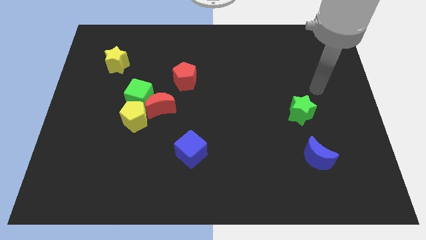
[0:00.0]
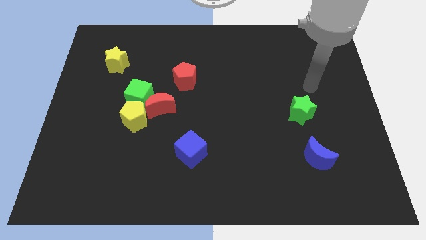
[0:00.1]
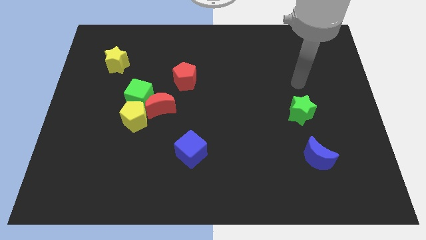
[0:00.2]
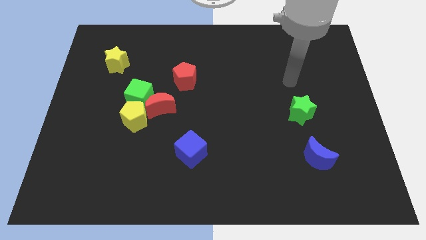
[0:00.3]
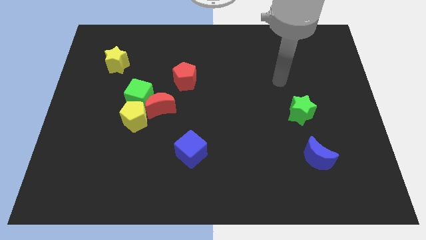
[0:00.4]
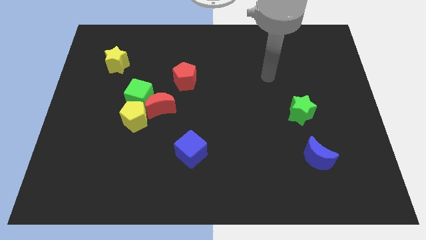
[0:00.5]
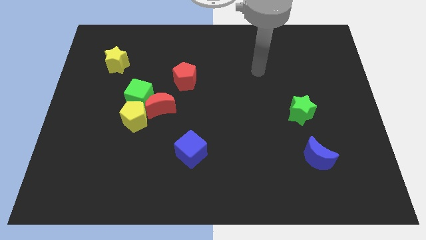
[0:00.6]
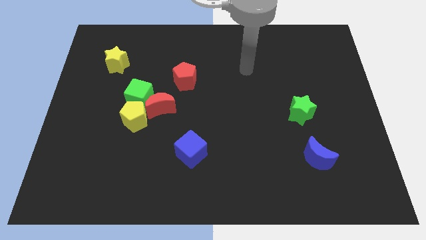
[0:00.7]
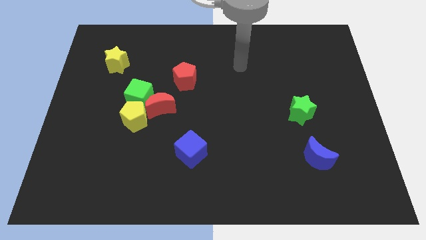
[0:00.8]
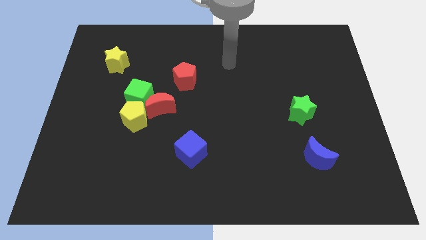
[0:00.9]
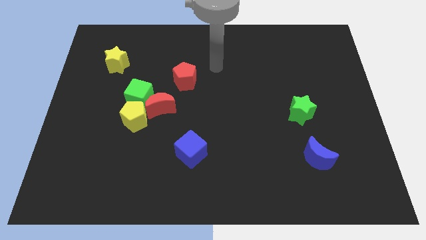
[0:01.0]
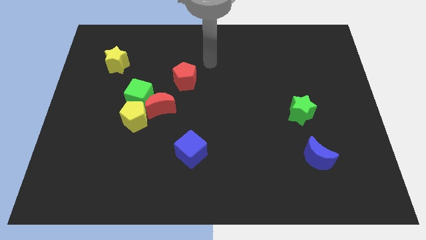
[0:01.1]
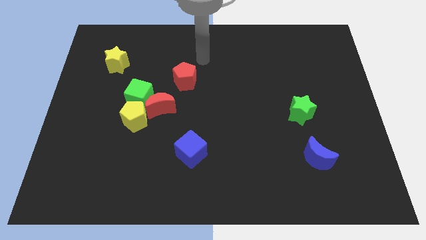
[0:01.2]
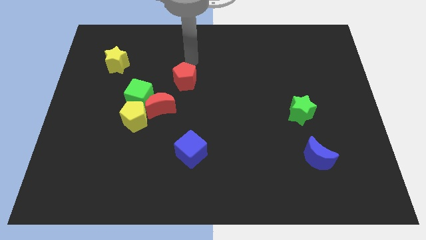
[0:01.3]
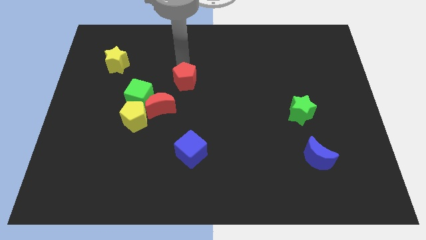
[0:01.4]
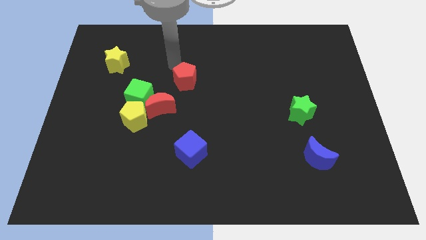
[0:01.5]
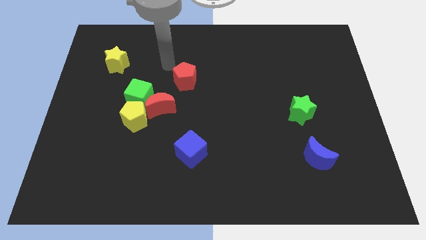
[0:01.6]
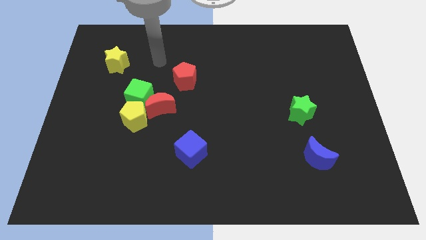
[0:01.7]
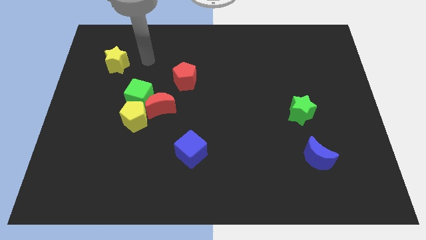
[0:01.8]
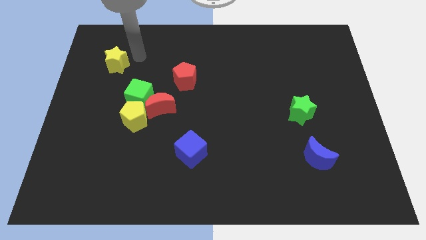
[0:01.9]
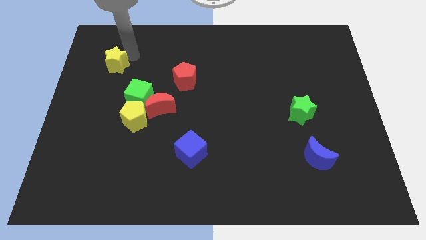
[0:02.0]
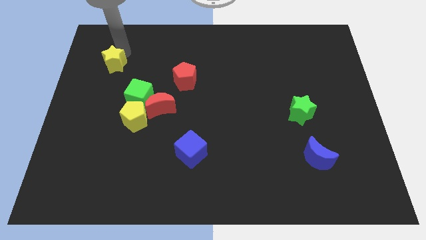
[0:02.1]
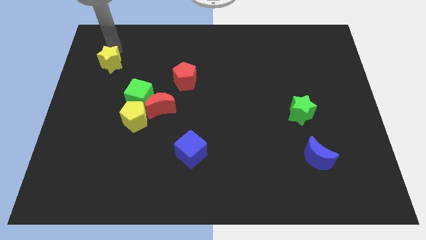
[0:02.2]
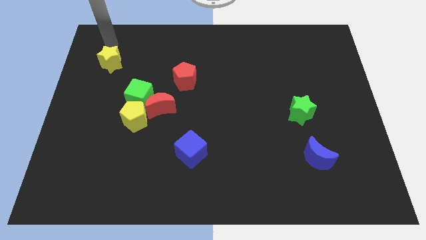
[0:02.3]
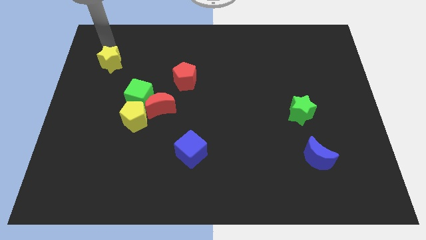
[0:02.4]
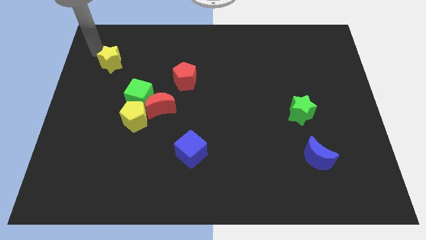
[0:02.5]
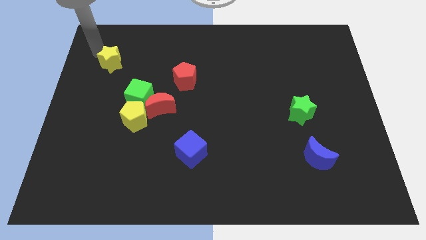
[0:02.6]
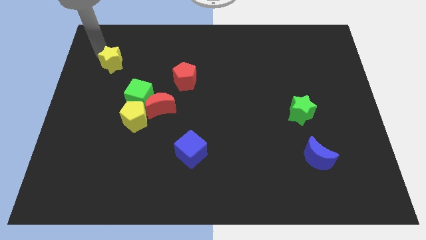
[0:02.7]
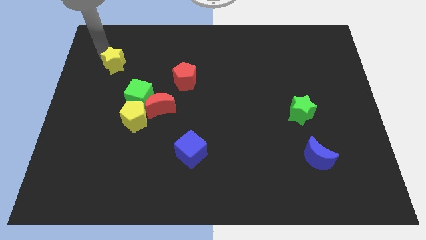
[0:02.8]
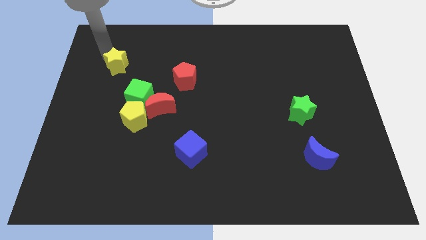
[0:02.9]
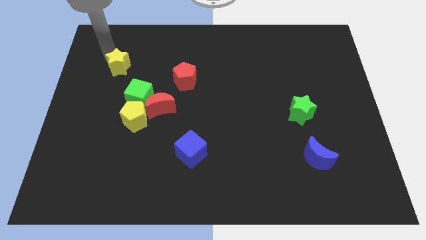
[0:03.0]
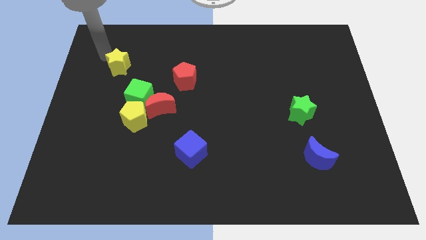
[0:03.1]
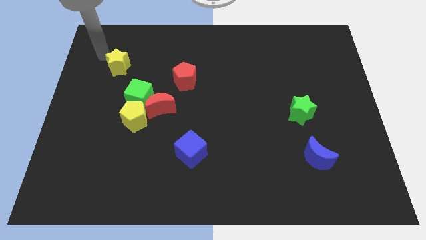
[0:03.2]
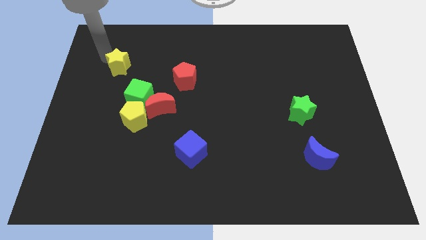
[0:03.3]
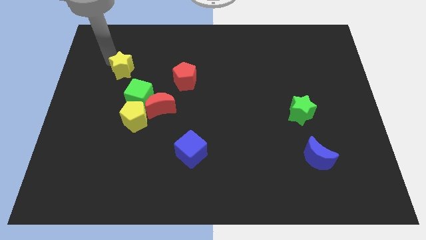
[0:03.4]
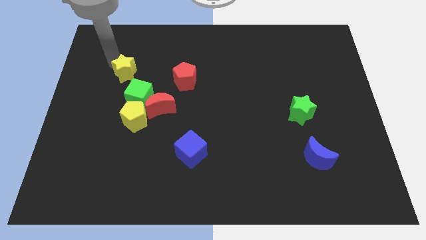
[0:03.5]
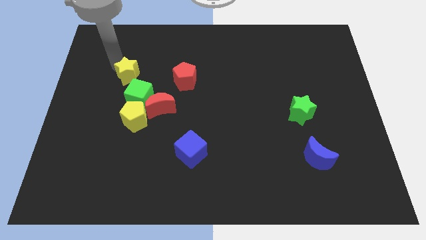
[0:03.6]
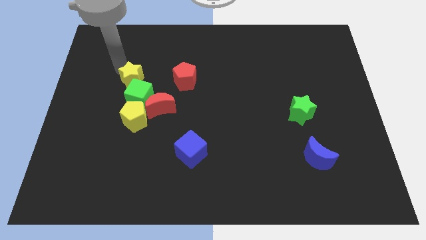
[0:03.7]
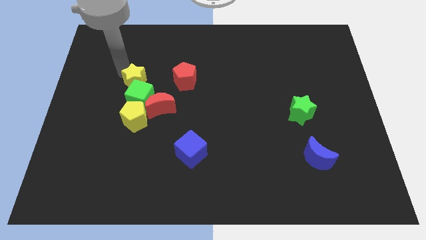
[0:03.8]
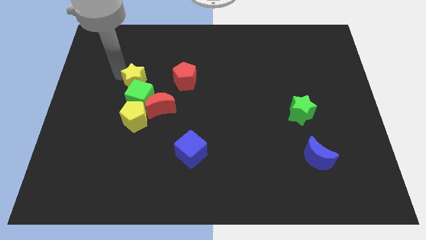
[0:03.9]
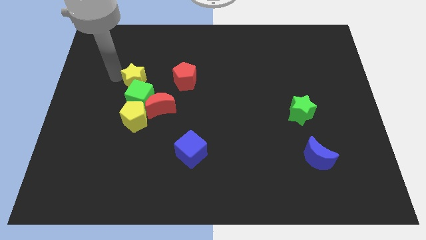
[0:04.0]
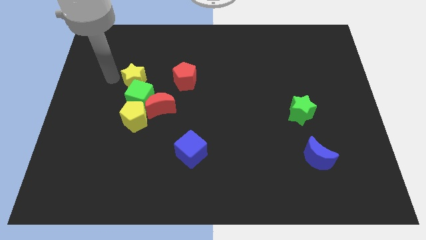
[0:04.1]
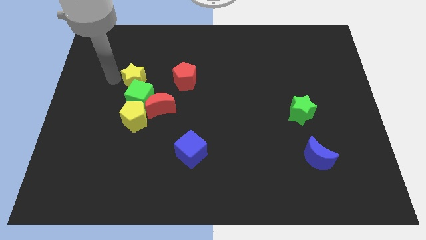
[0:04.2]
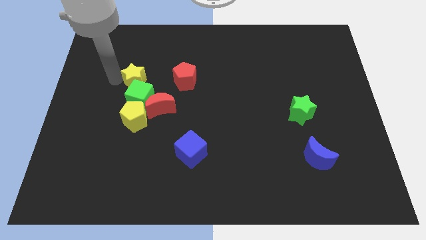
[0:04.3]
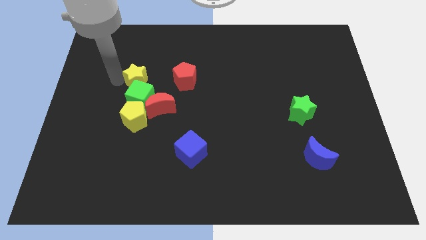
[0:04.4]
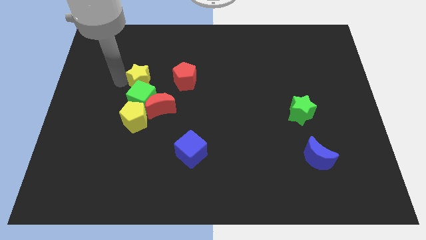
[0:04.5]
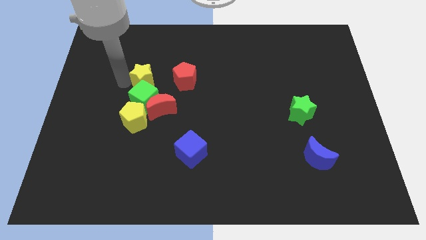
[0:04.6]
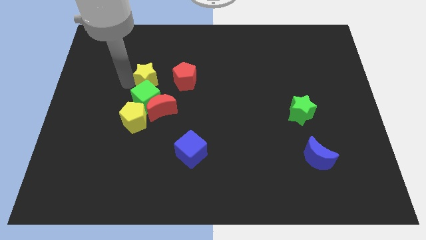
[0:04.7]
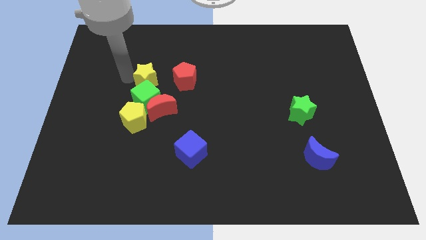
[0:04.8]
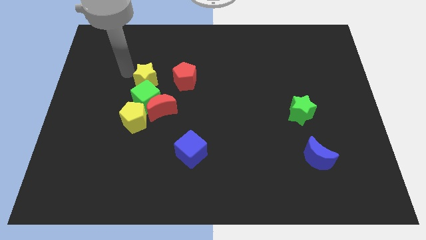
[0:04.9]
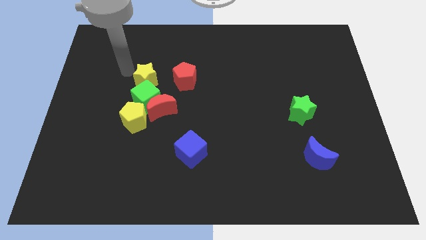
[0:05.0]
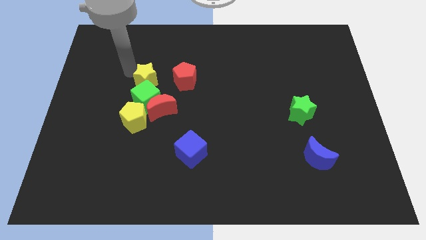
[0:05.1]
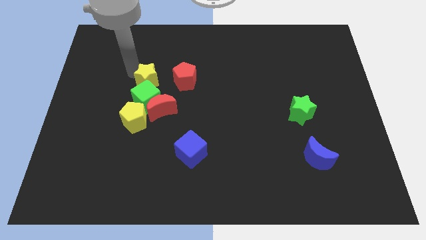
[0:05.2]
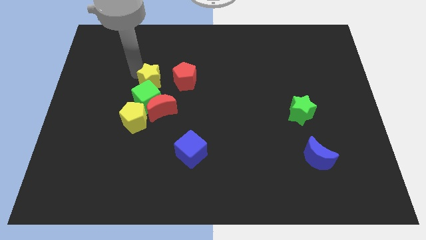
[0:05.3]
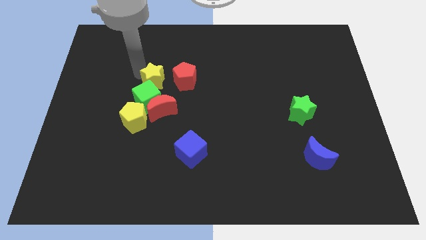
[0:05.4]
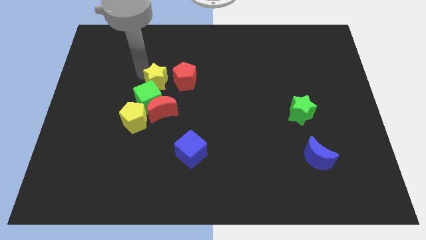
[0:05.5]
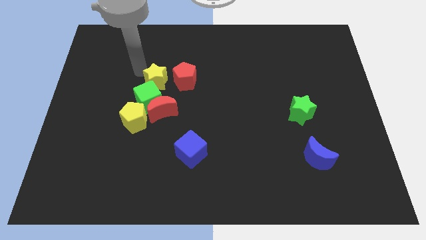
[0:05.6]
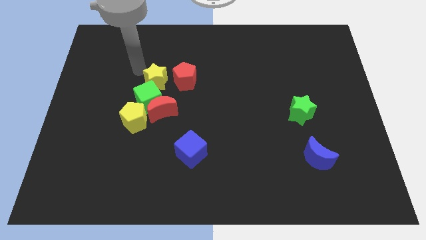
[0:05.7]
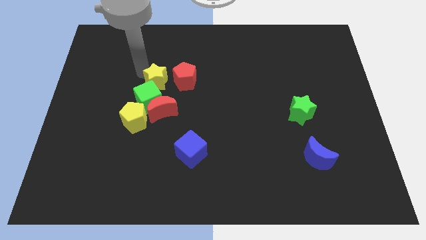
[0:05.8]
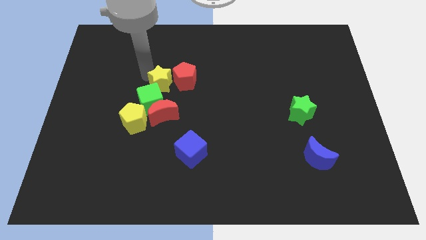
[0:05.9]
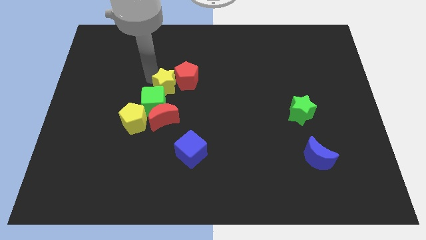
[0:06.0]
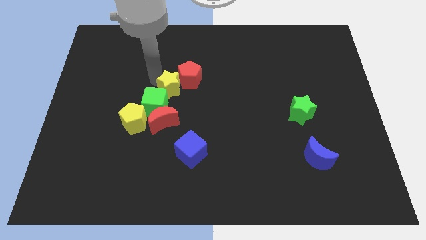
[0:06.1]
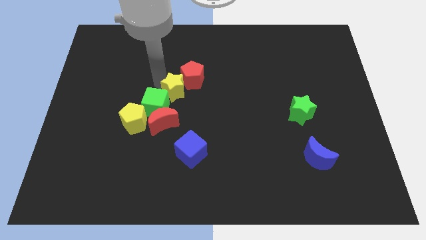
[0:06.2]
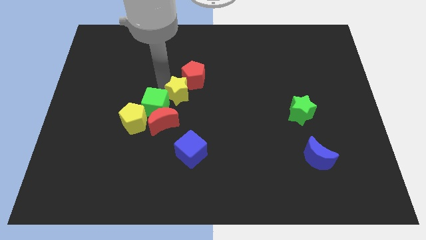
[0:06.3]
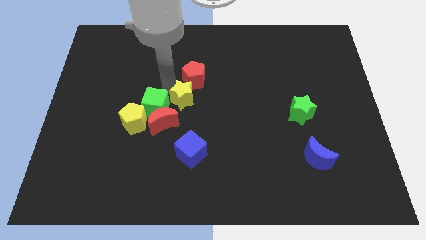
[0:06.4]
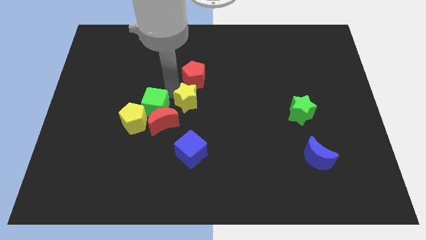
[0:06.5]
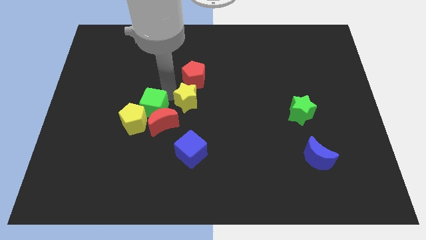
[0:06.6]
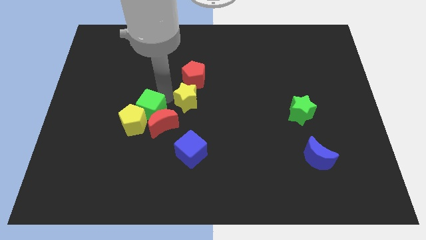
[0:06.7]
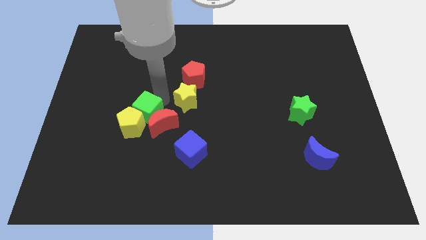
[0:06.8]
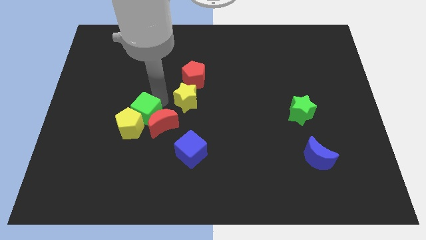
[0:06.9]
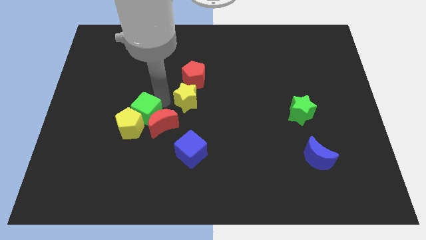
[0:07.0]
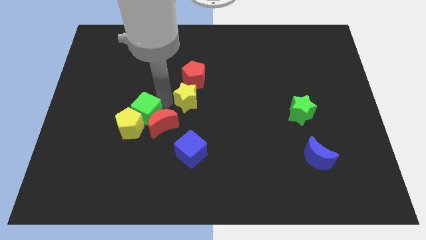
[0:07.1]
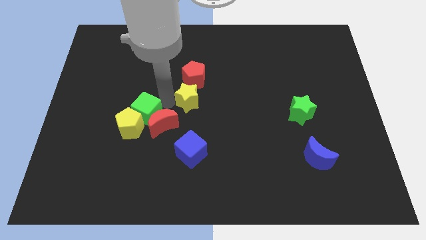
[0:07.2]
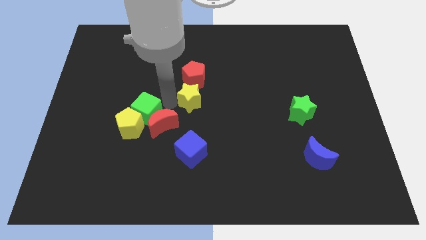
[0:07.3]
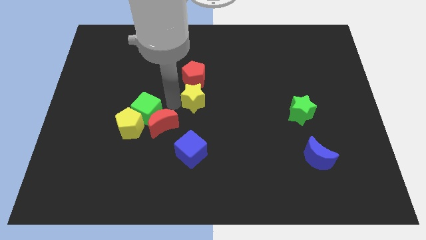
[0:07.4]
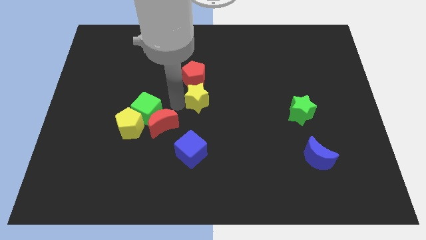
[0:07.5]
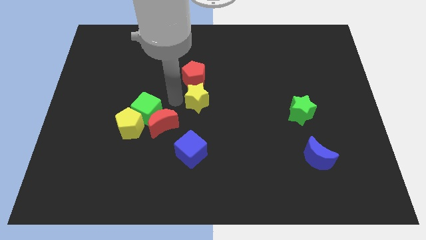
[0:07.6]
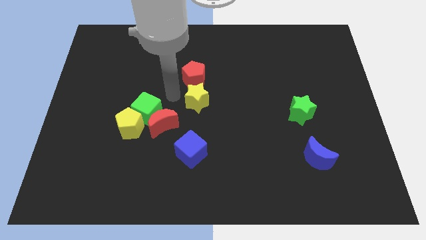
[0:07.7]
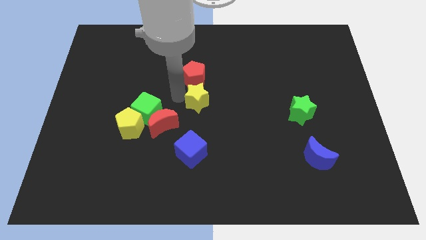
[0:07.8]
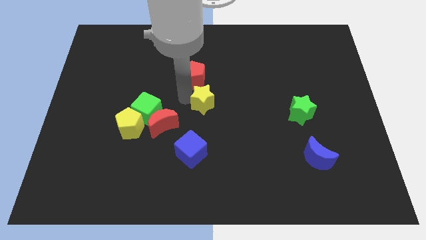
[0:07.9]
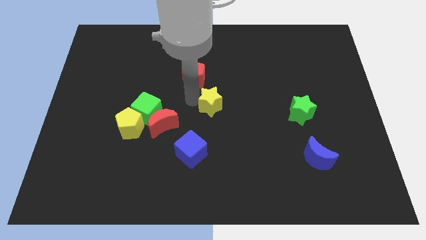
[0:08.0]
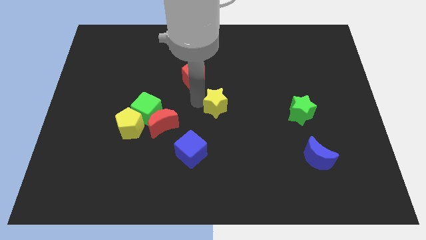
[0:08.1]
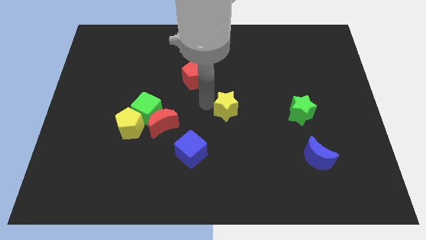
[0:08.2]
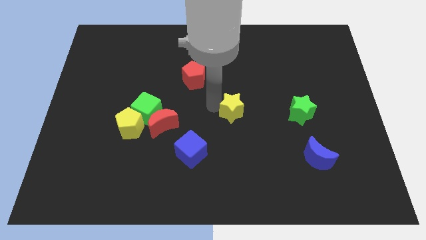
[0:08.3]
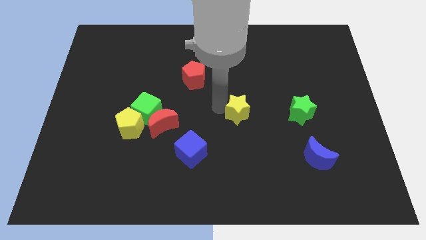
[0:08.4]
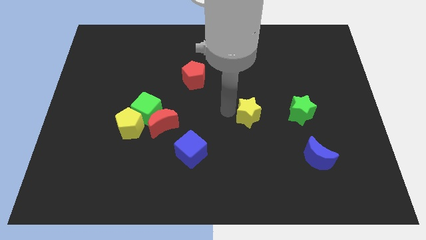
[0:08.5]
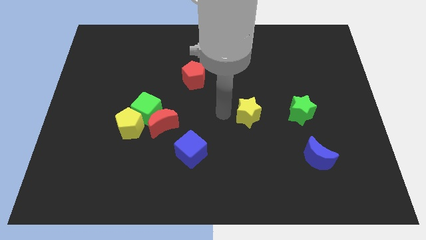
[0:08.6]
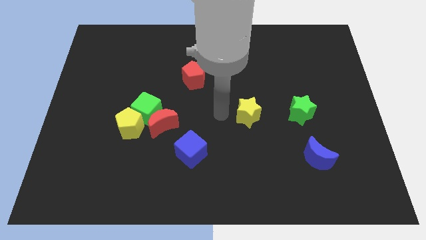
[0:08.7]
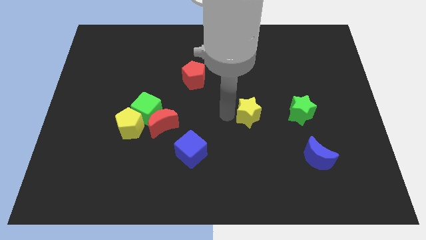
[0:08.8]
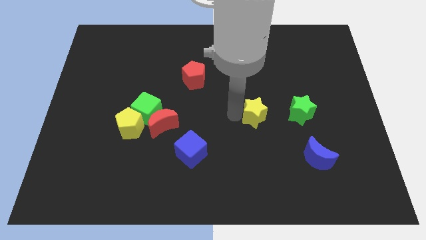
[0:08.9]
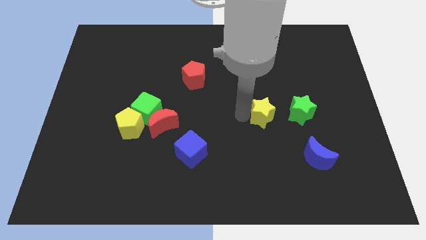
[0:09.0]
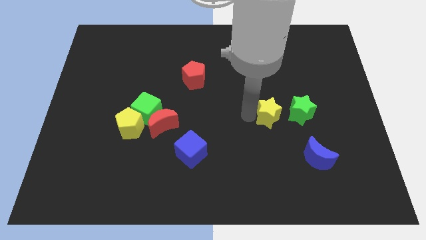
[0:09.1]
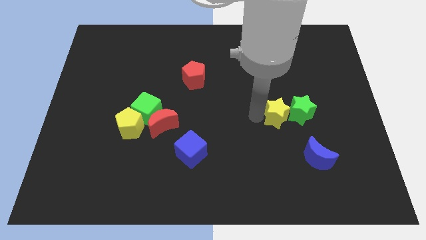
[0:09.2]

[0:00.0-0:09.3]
put the yellow star next to the green star
